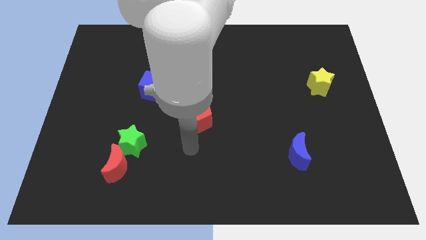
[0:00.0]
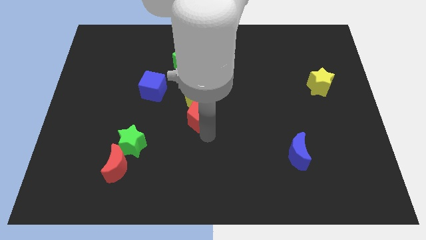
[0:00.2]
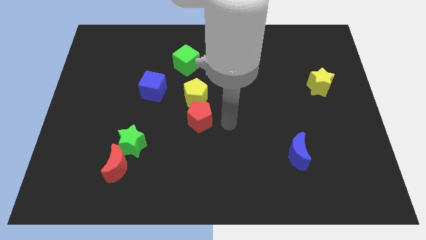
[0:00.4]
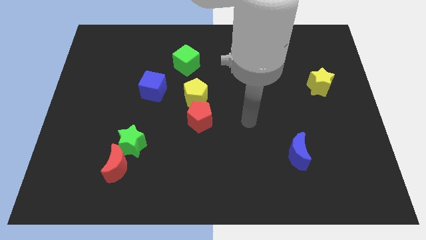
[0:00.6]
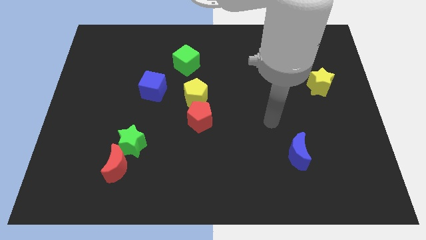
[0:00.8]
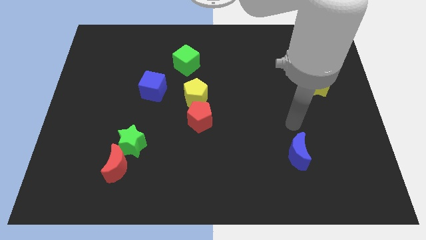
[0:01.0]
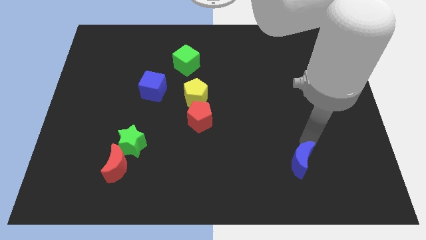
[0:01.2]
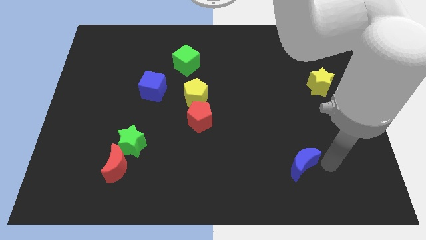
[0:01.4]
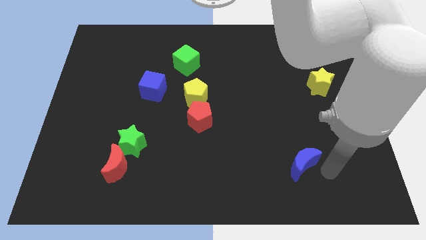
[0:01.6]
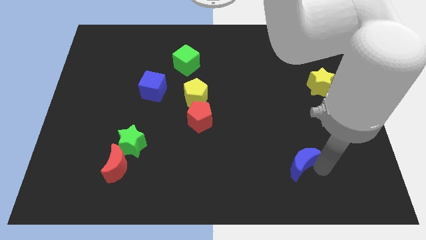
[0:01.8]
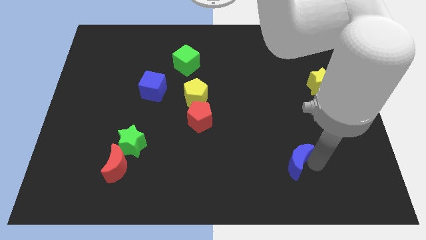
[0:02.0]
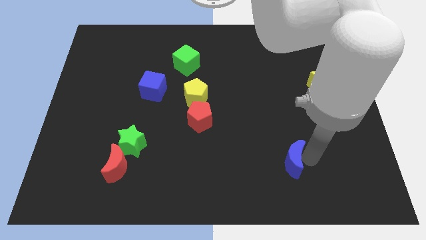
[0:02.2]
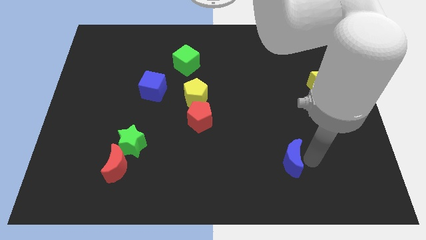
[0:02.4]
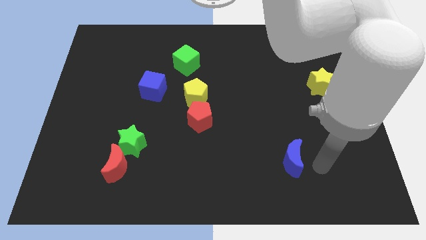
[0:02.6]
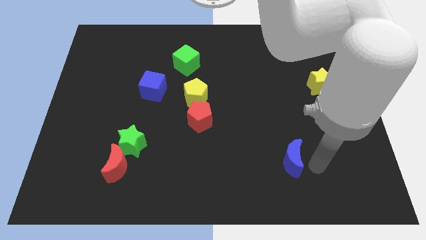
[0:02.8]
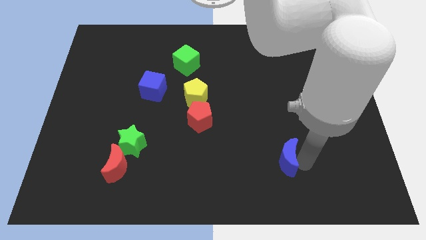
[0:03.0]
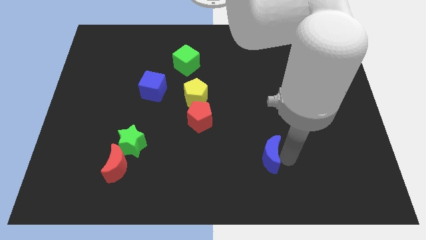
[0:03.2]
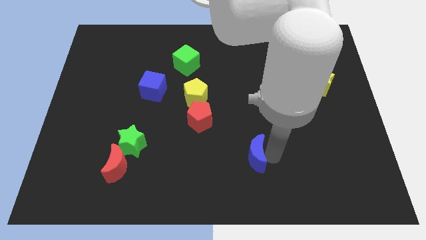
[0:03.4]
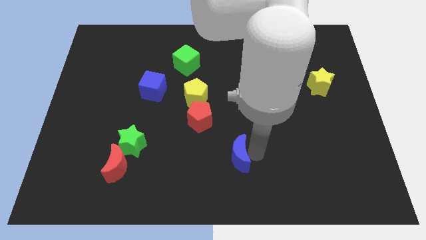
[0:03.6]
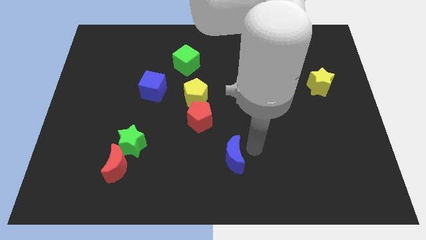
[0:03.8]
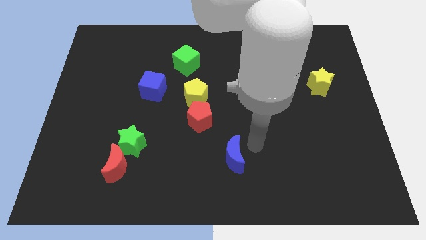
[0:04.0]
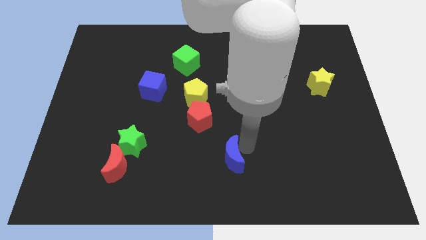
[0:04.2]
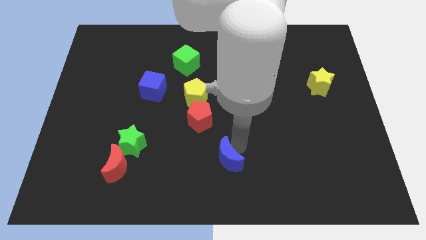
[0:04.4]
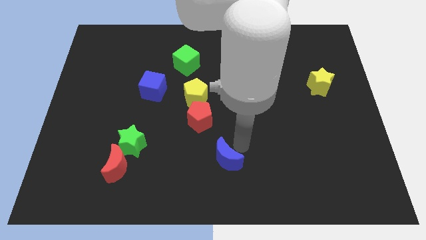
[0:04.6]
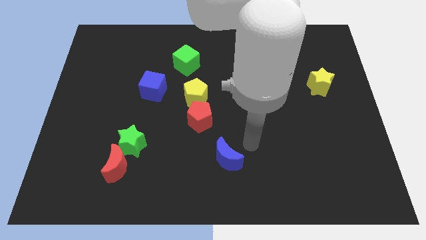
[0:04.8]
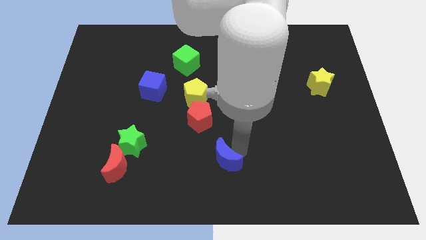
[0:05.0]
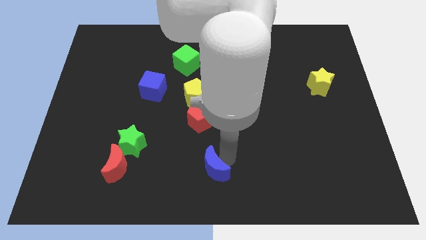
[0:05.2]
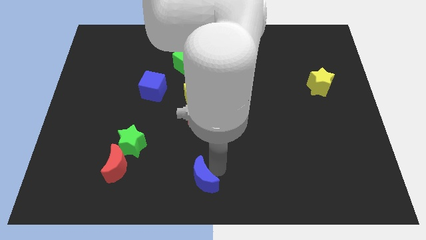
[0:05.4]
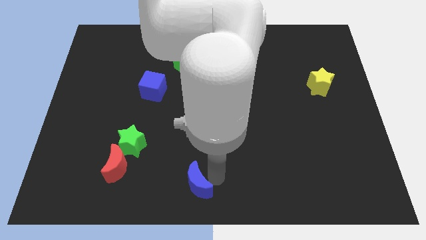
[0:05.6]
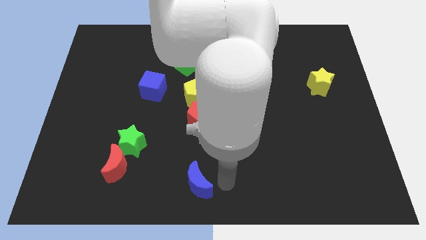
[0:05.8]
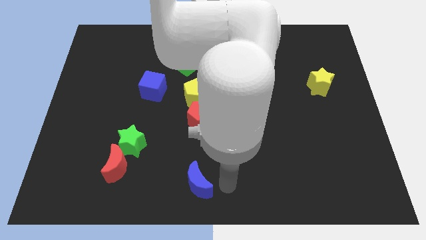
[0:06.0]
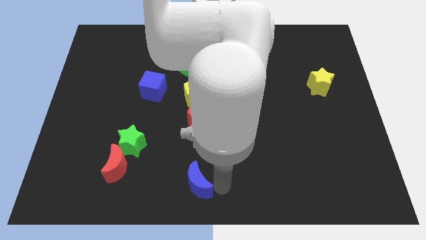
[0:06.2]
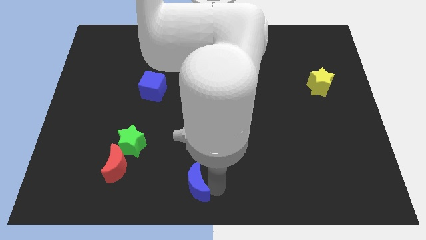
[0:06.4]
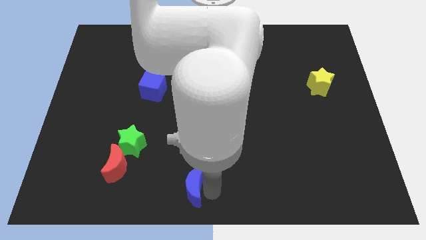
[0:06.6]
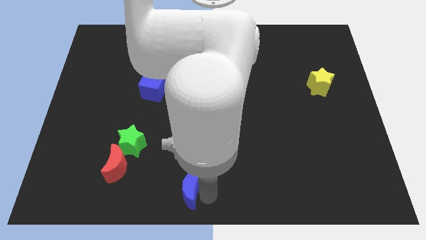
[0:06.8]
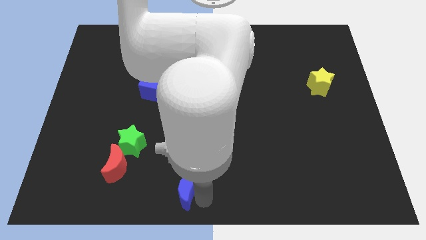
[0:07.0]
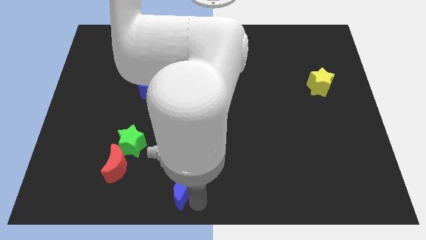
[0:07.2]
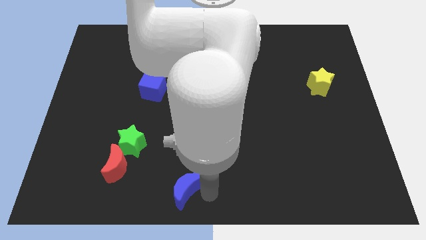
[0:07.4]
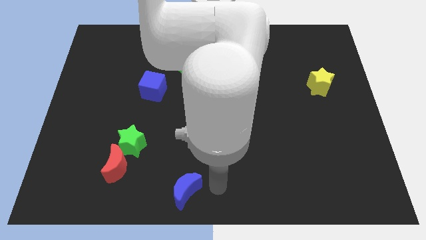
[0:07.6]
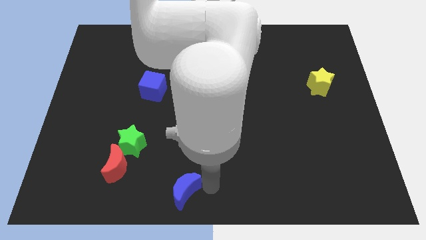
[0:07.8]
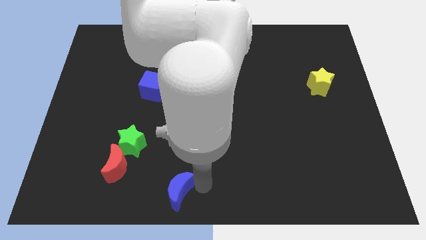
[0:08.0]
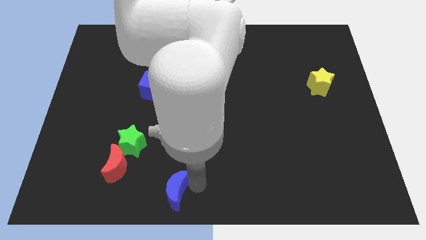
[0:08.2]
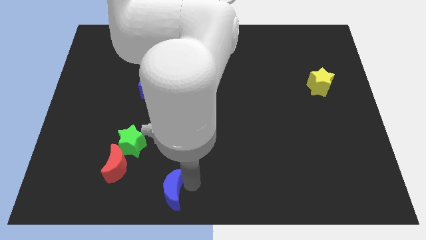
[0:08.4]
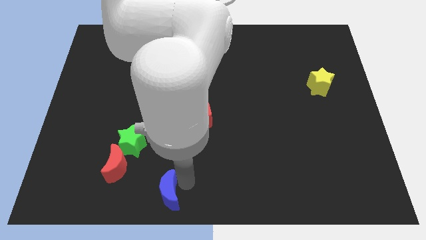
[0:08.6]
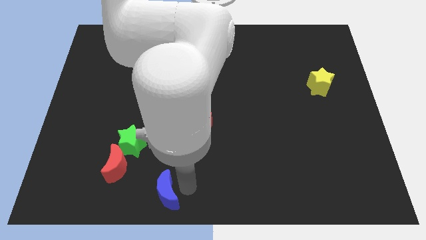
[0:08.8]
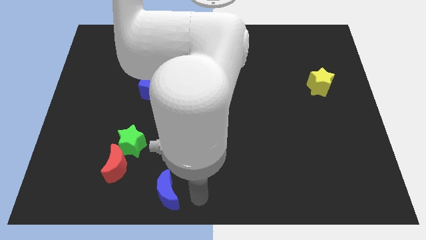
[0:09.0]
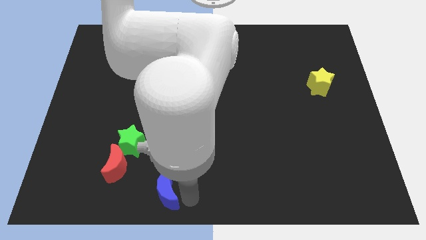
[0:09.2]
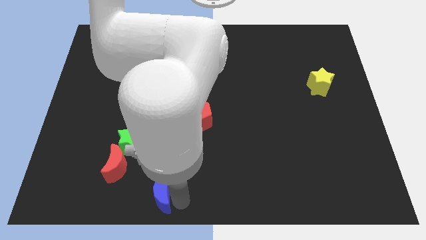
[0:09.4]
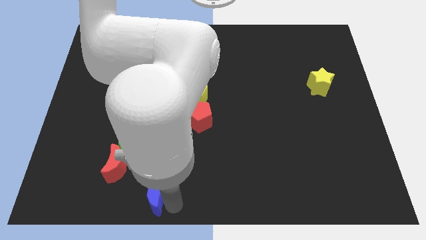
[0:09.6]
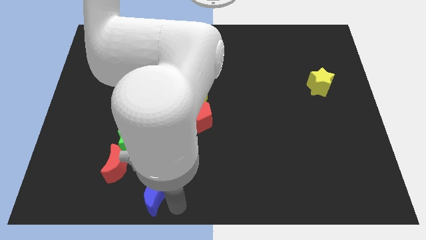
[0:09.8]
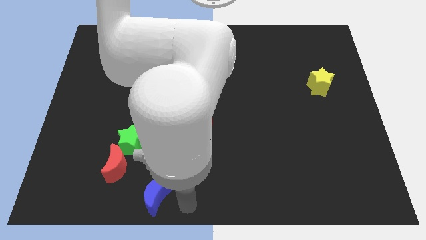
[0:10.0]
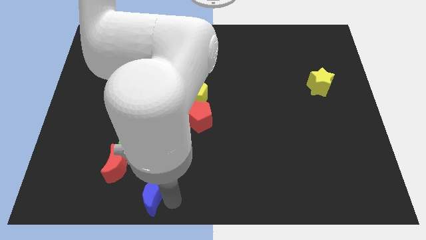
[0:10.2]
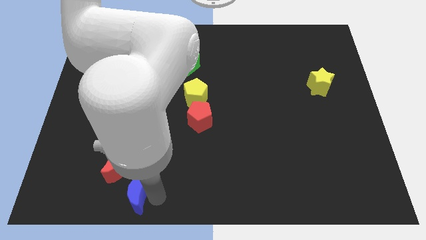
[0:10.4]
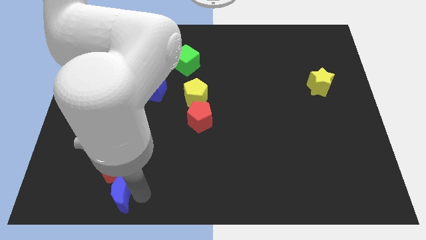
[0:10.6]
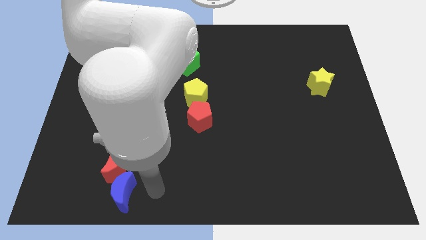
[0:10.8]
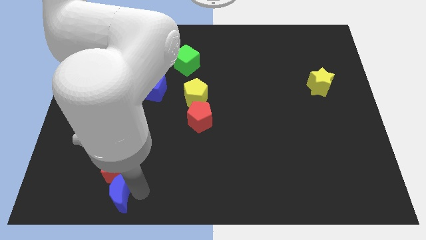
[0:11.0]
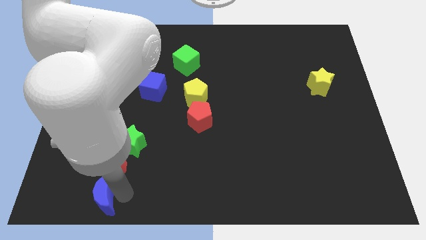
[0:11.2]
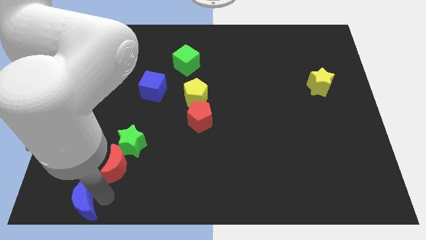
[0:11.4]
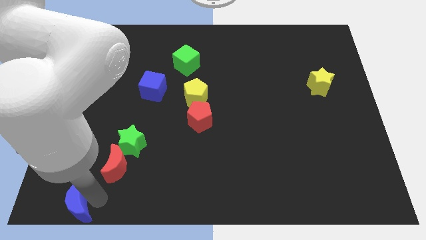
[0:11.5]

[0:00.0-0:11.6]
push the blue moon to the bottom left corner
